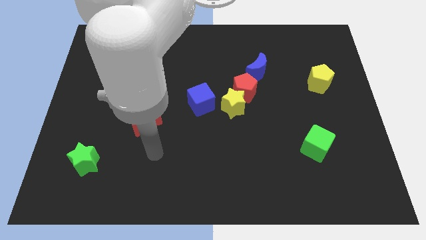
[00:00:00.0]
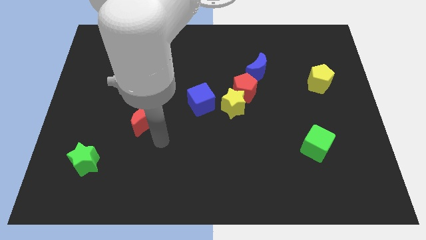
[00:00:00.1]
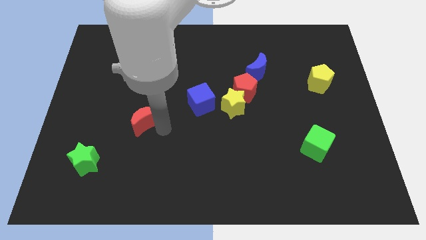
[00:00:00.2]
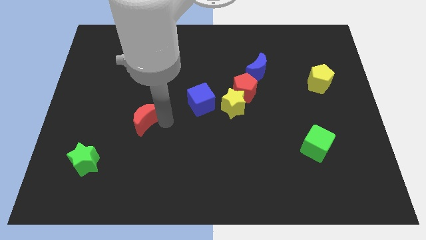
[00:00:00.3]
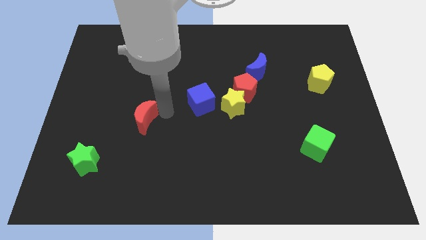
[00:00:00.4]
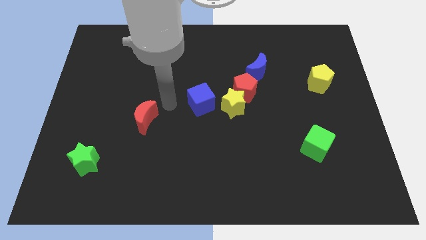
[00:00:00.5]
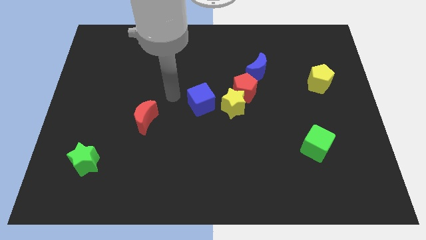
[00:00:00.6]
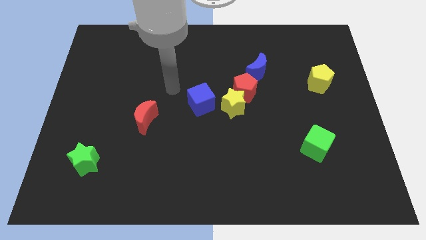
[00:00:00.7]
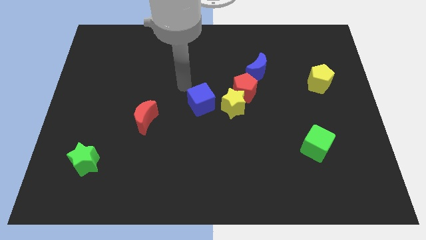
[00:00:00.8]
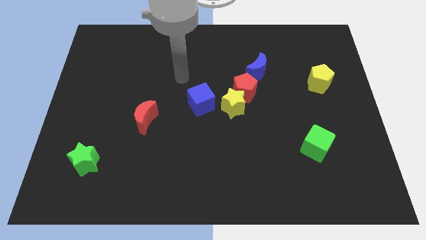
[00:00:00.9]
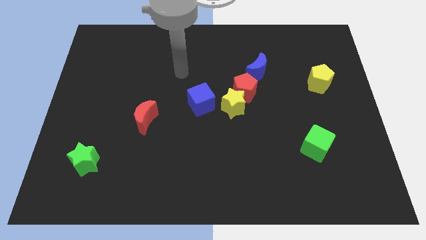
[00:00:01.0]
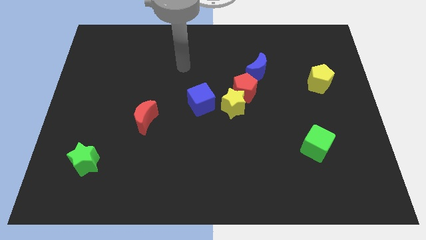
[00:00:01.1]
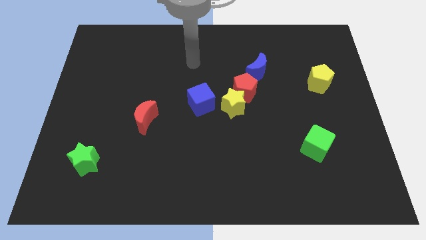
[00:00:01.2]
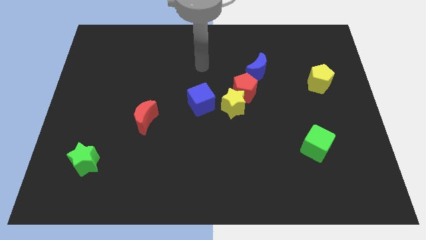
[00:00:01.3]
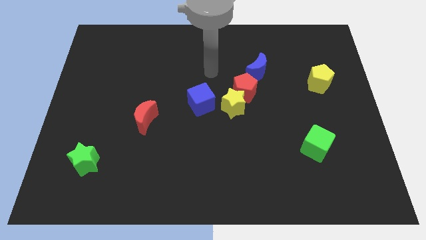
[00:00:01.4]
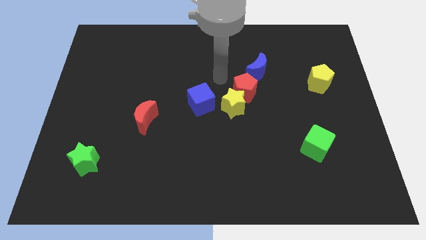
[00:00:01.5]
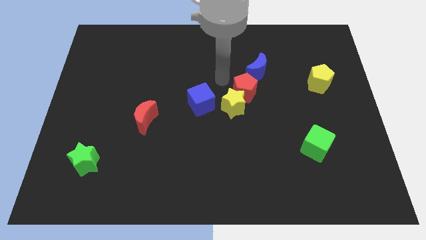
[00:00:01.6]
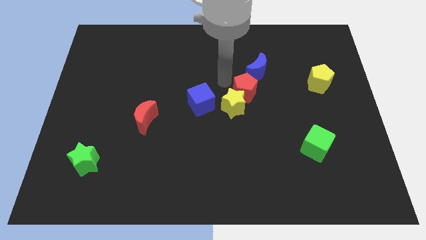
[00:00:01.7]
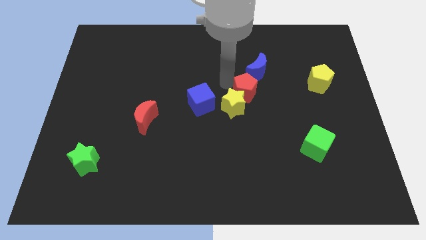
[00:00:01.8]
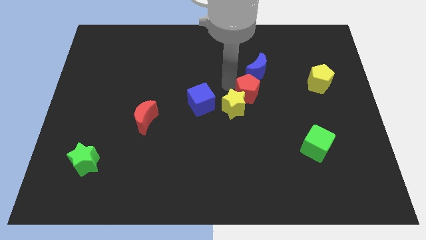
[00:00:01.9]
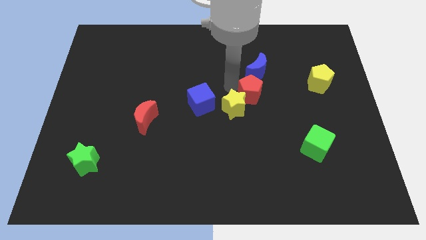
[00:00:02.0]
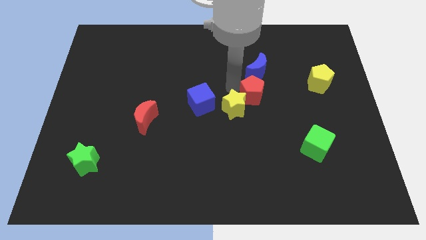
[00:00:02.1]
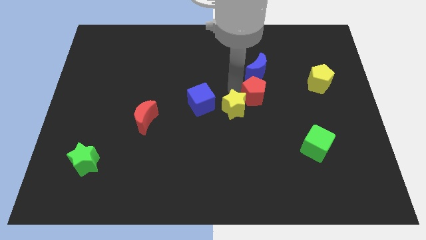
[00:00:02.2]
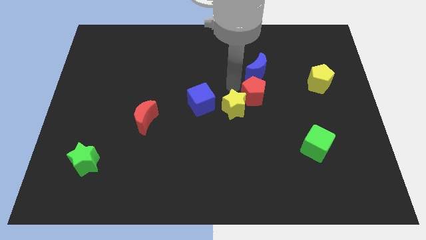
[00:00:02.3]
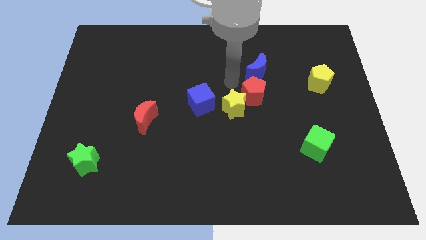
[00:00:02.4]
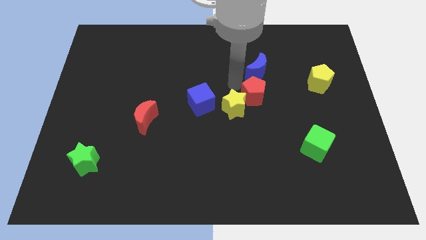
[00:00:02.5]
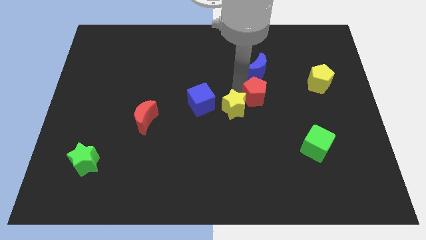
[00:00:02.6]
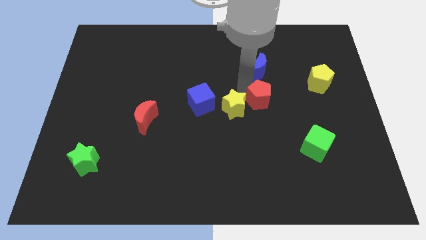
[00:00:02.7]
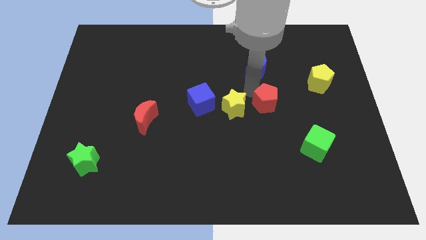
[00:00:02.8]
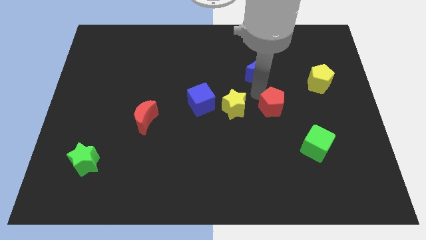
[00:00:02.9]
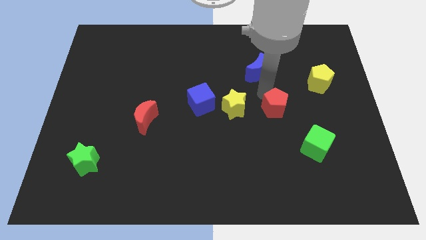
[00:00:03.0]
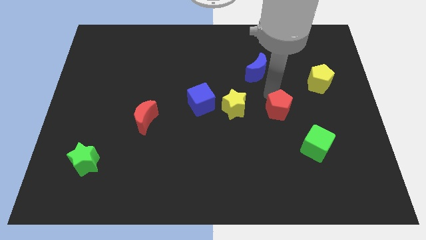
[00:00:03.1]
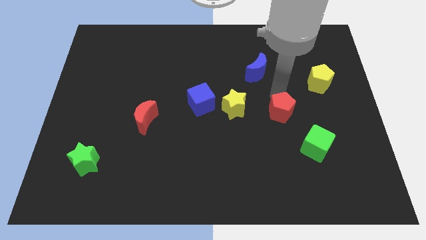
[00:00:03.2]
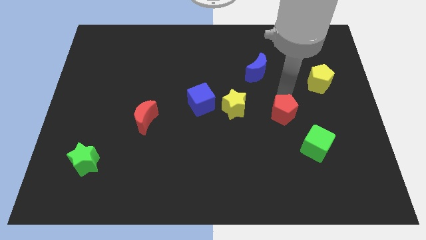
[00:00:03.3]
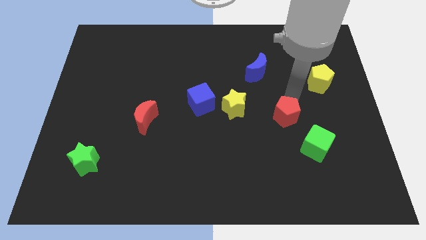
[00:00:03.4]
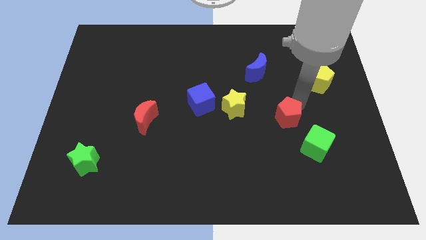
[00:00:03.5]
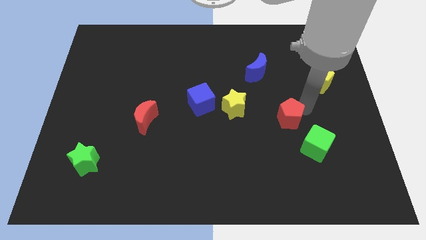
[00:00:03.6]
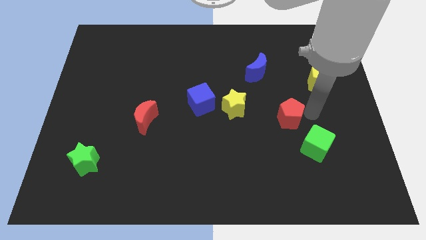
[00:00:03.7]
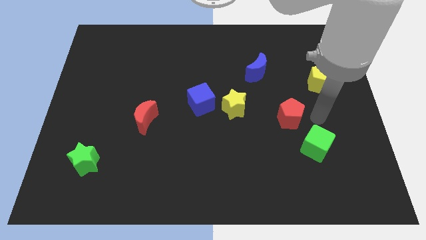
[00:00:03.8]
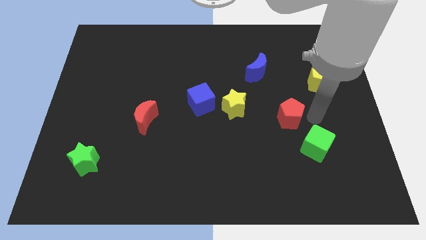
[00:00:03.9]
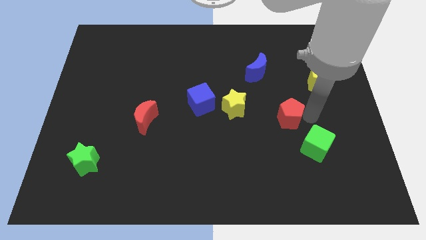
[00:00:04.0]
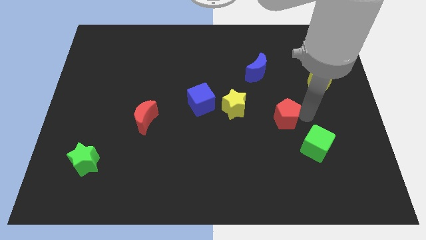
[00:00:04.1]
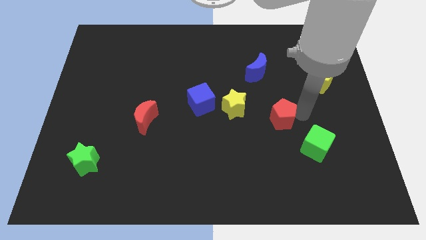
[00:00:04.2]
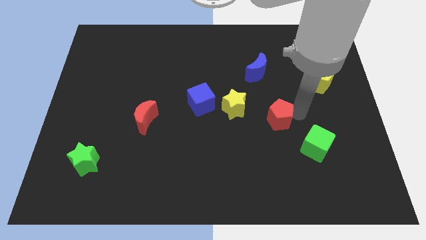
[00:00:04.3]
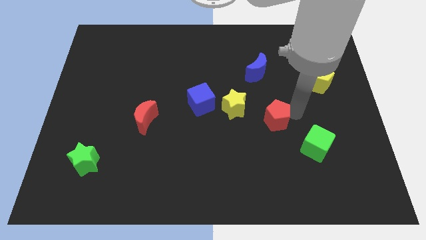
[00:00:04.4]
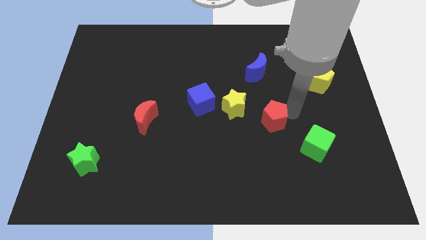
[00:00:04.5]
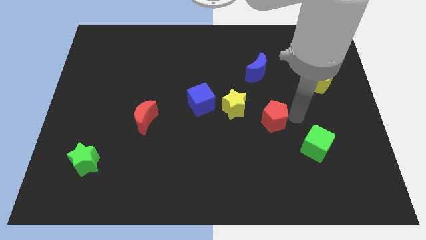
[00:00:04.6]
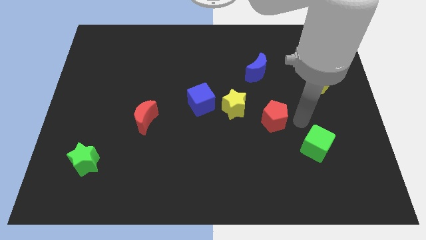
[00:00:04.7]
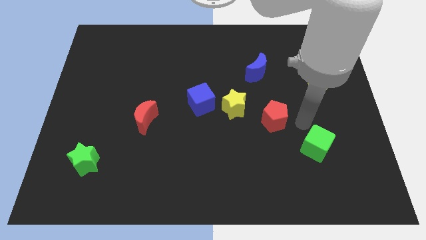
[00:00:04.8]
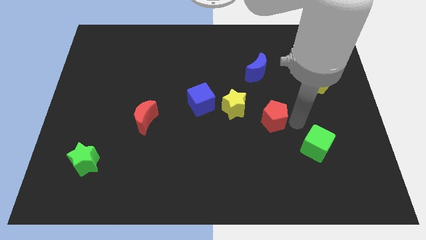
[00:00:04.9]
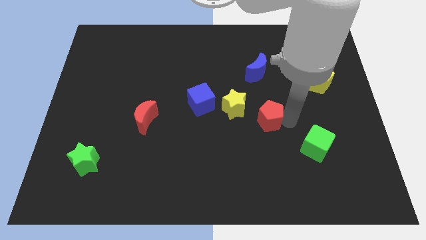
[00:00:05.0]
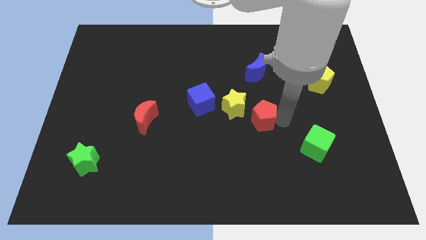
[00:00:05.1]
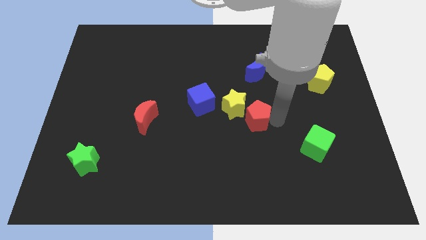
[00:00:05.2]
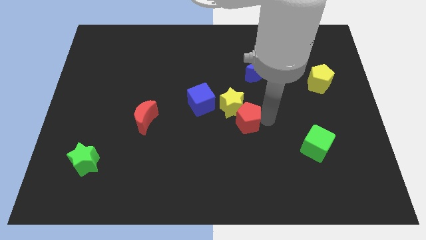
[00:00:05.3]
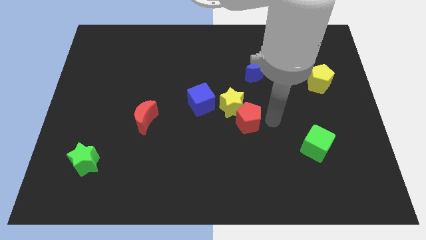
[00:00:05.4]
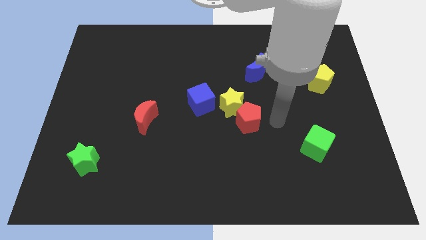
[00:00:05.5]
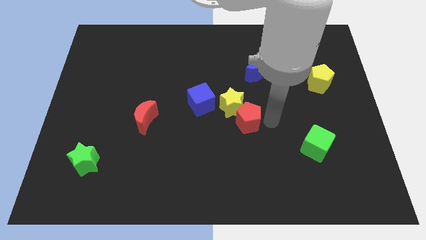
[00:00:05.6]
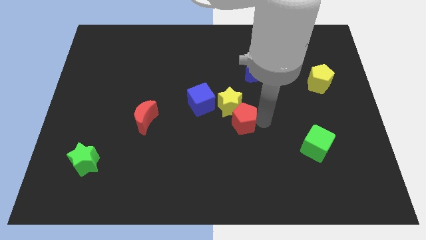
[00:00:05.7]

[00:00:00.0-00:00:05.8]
put the red pentagon to the bottom right of the blue cube

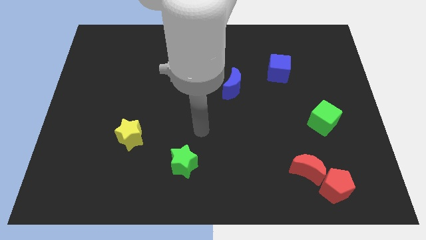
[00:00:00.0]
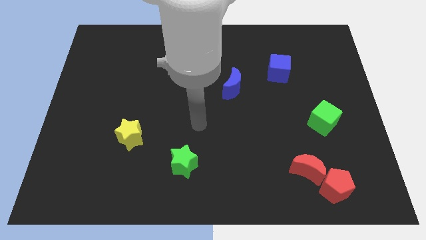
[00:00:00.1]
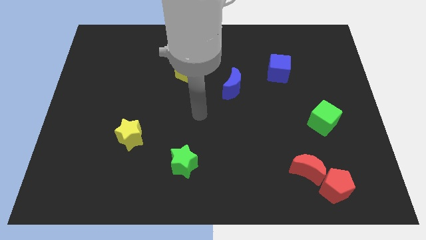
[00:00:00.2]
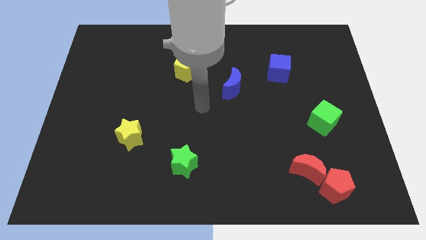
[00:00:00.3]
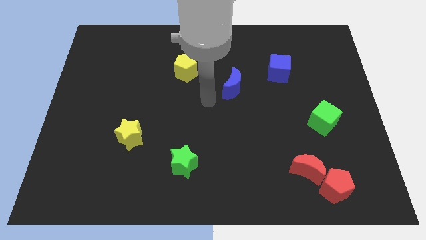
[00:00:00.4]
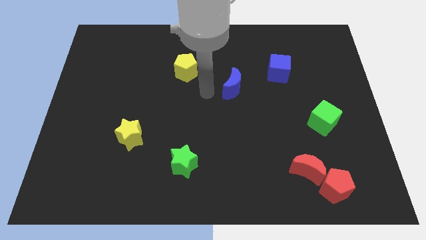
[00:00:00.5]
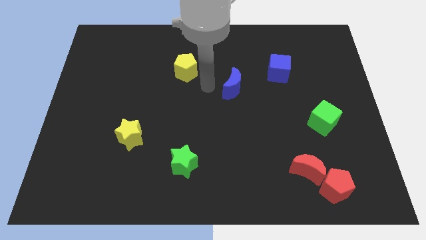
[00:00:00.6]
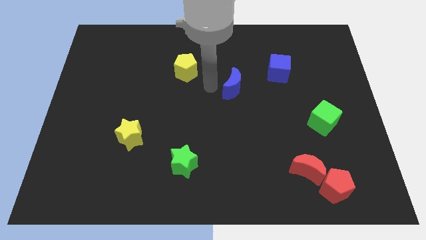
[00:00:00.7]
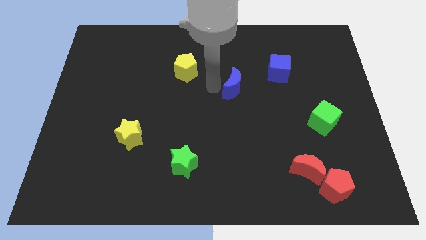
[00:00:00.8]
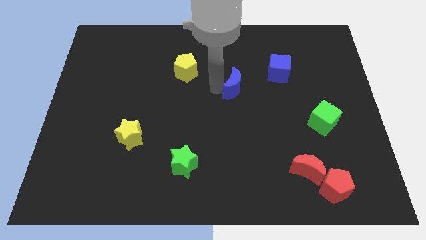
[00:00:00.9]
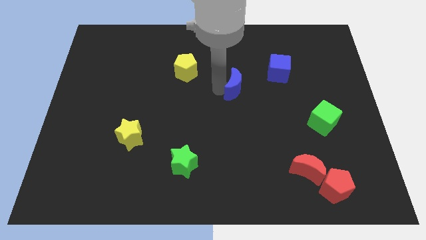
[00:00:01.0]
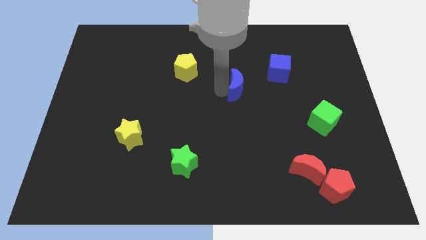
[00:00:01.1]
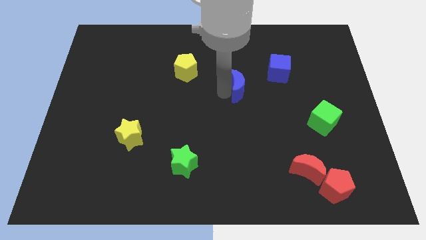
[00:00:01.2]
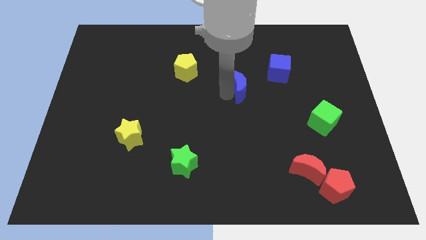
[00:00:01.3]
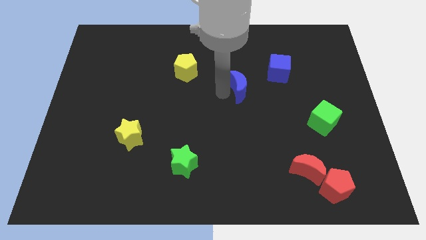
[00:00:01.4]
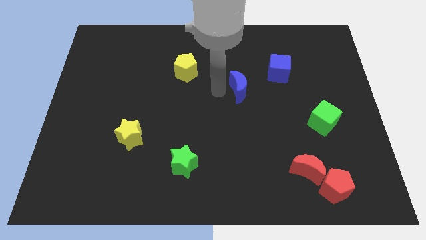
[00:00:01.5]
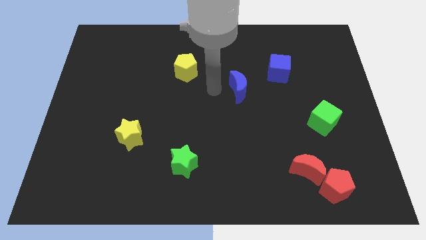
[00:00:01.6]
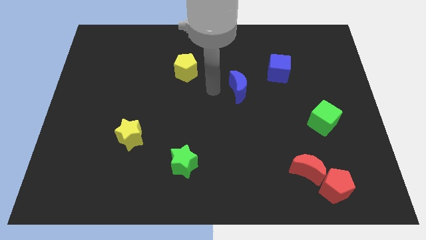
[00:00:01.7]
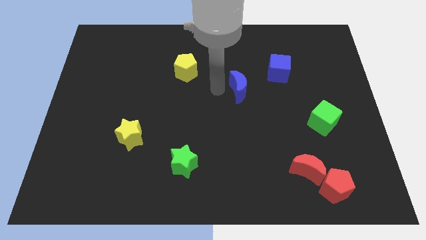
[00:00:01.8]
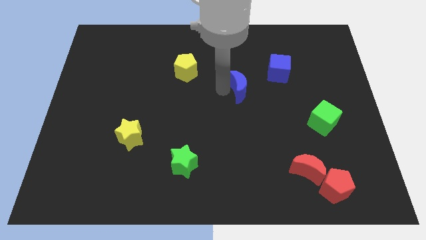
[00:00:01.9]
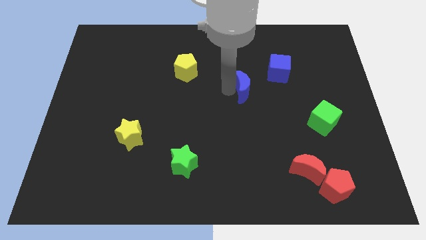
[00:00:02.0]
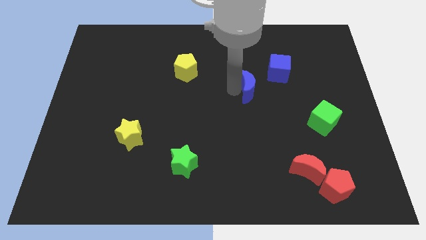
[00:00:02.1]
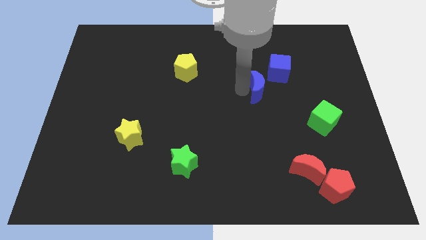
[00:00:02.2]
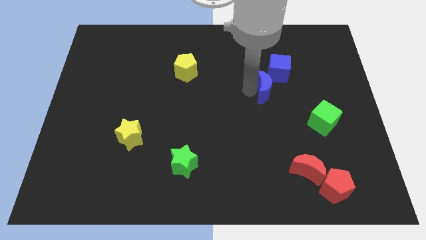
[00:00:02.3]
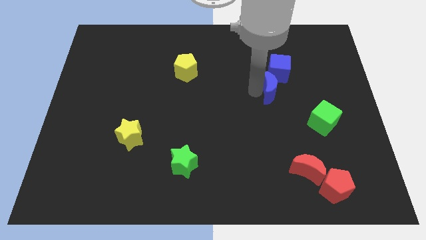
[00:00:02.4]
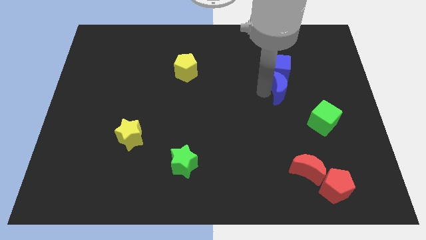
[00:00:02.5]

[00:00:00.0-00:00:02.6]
put the blue moon to the bottom right side of the blue cube
